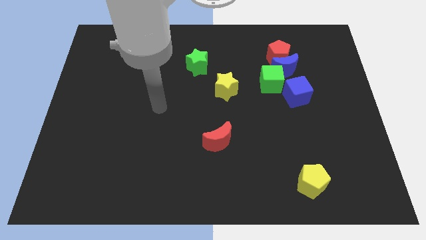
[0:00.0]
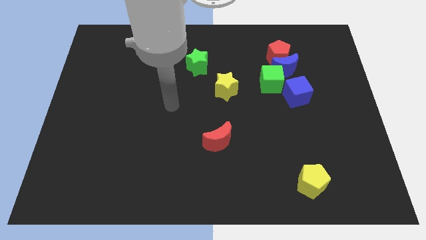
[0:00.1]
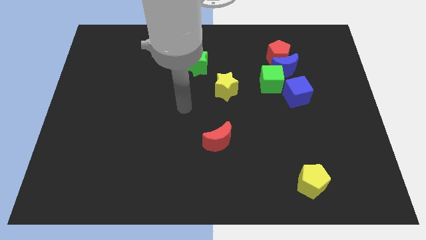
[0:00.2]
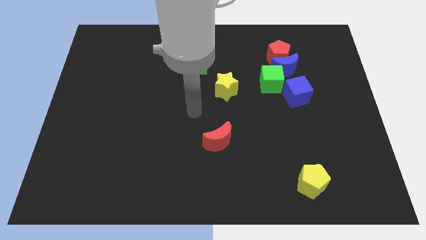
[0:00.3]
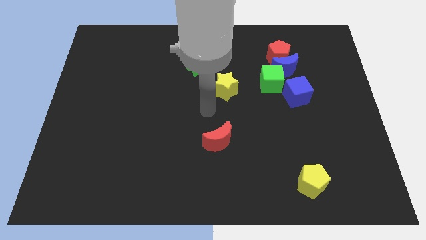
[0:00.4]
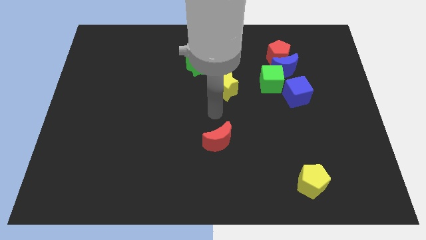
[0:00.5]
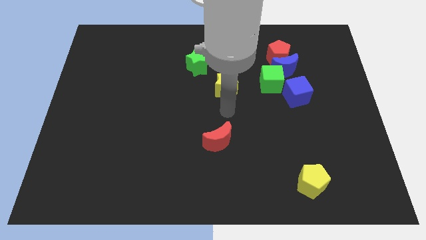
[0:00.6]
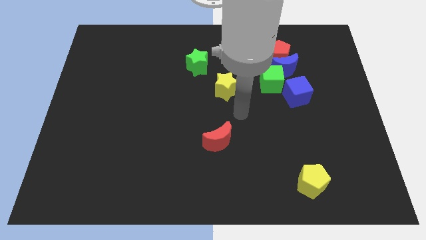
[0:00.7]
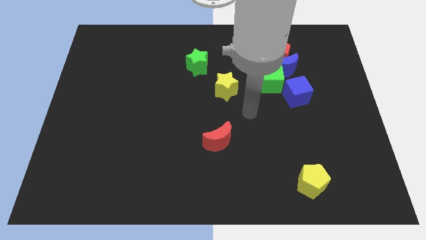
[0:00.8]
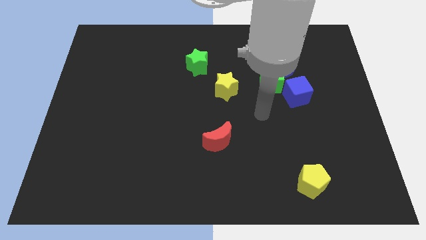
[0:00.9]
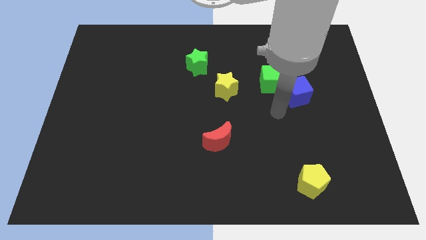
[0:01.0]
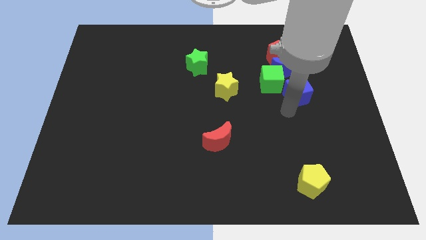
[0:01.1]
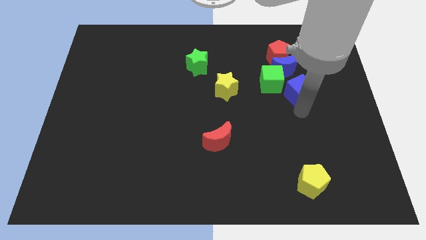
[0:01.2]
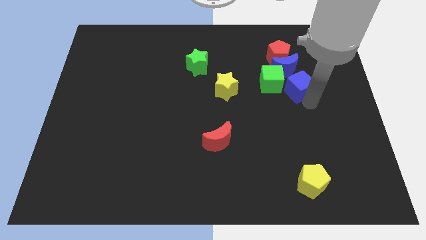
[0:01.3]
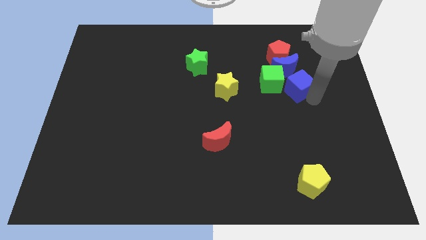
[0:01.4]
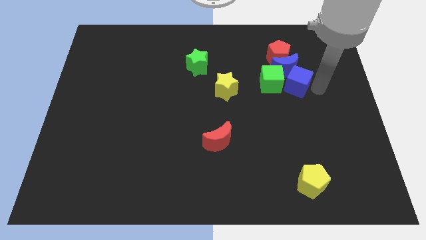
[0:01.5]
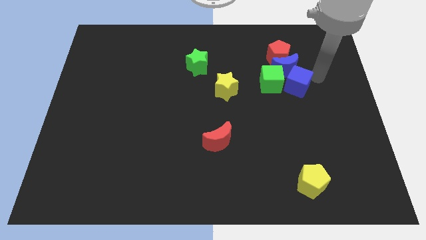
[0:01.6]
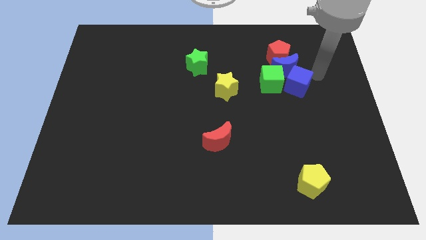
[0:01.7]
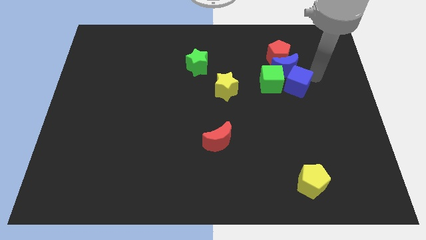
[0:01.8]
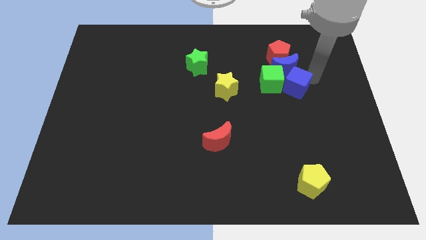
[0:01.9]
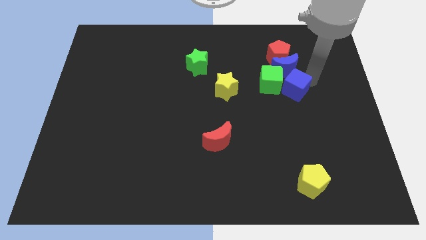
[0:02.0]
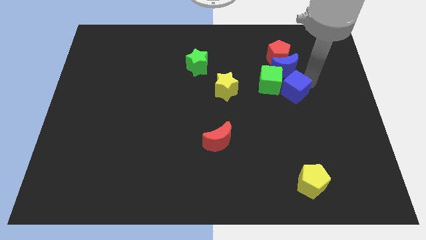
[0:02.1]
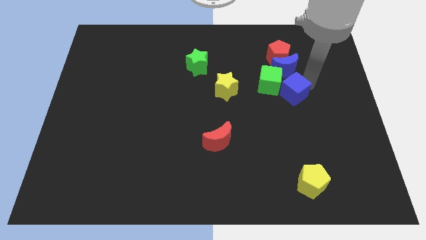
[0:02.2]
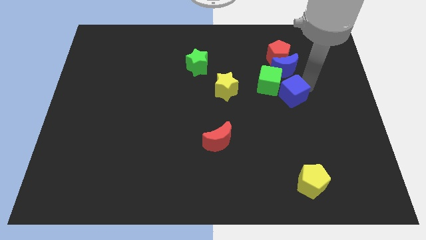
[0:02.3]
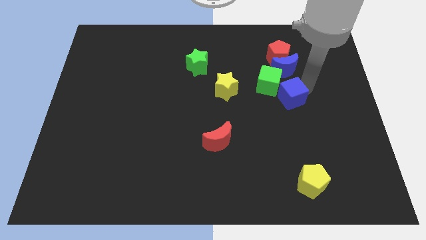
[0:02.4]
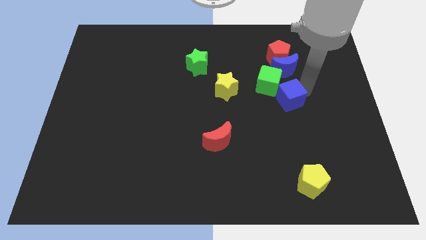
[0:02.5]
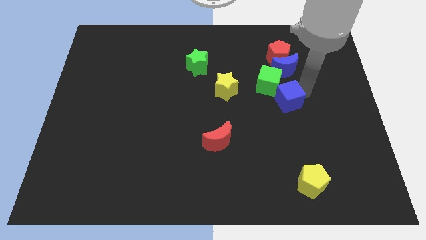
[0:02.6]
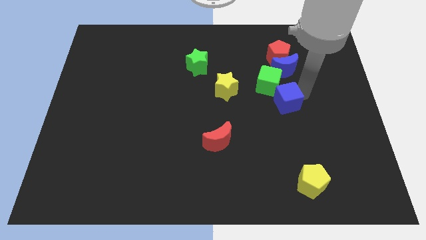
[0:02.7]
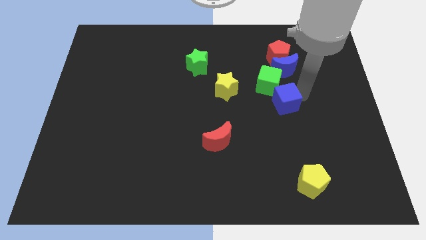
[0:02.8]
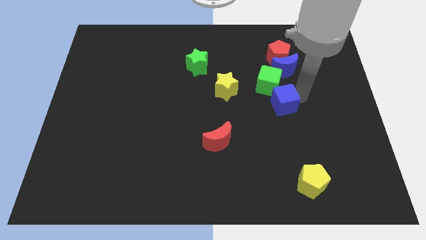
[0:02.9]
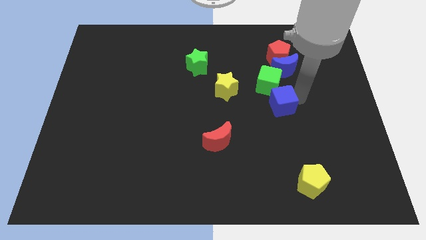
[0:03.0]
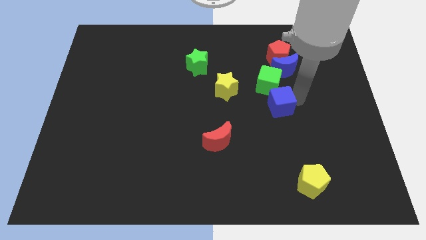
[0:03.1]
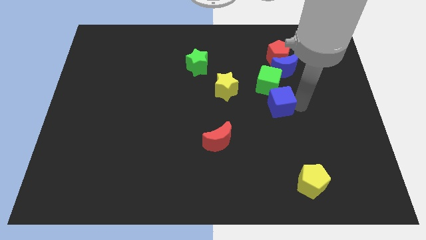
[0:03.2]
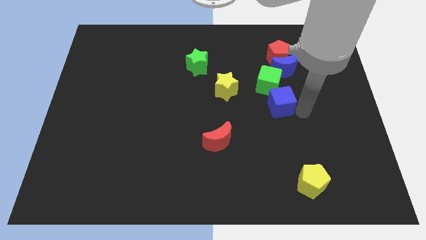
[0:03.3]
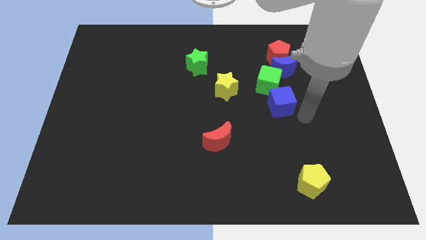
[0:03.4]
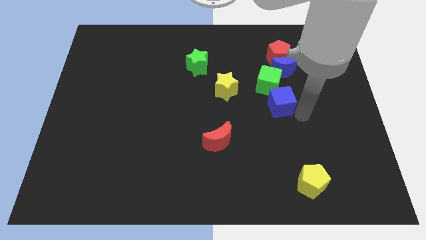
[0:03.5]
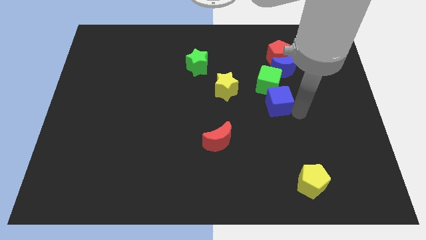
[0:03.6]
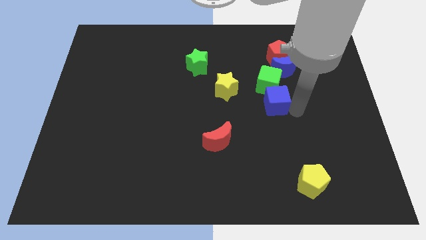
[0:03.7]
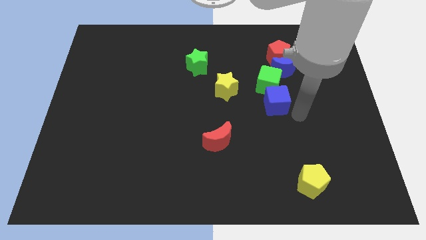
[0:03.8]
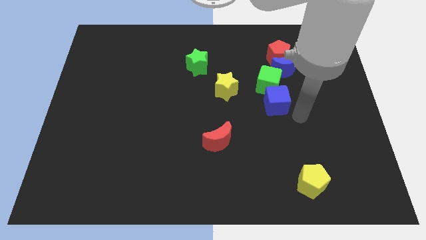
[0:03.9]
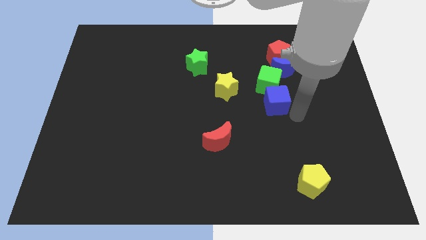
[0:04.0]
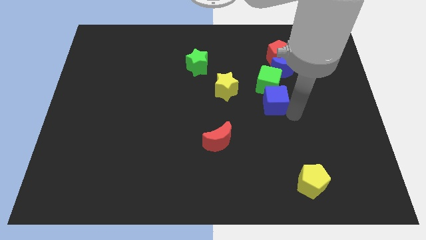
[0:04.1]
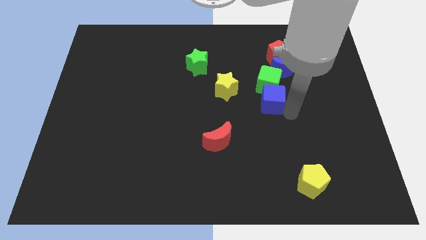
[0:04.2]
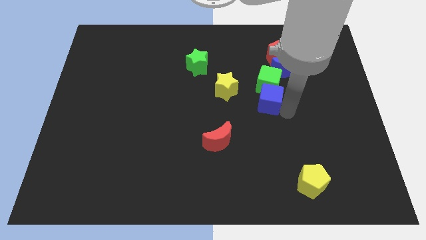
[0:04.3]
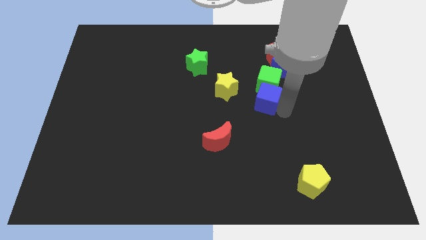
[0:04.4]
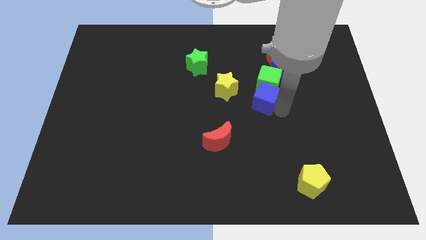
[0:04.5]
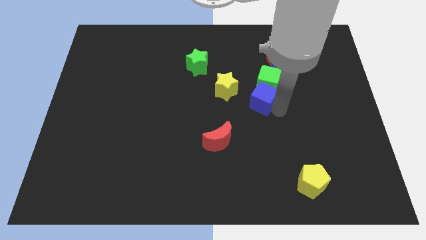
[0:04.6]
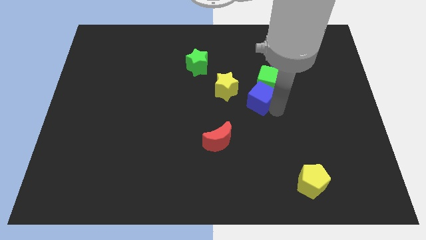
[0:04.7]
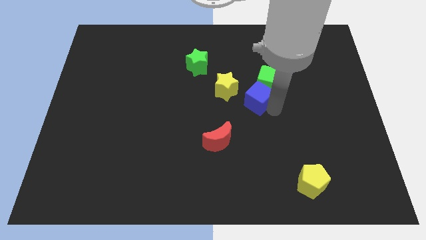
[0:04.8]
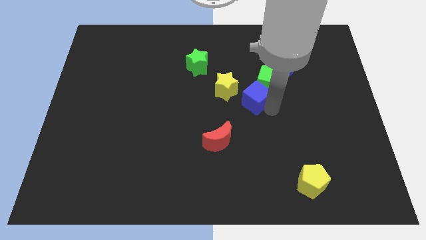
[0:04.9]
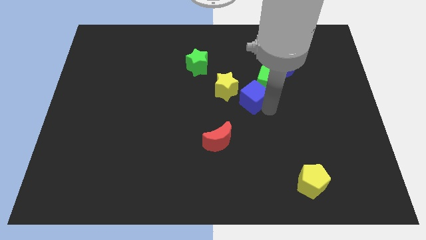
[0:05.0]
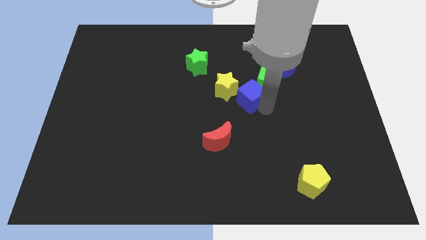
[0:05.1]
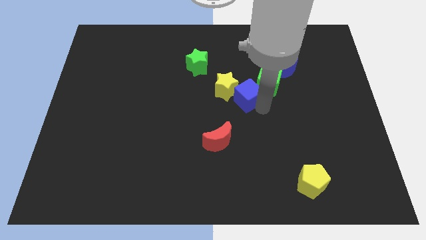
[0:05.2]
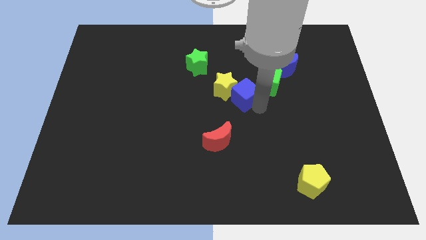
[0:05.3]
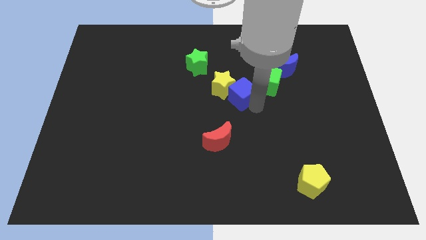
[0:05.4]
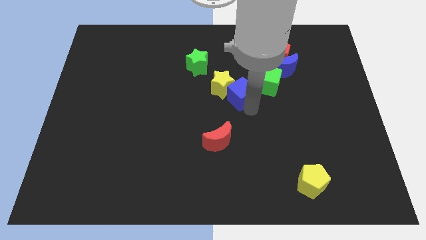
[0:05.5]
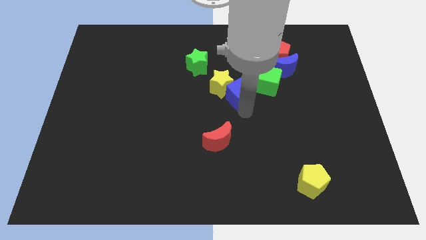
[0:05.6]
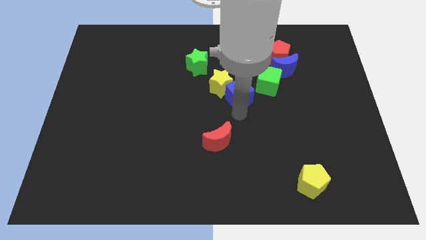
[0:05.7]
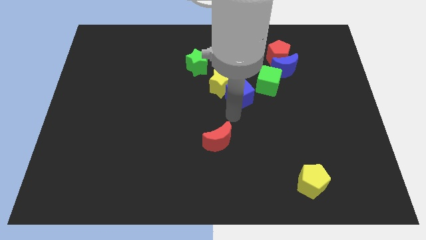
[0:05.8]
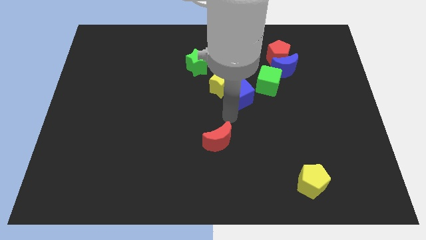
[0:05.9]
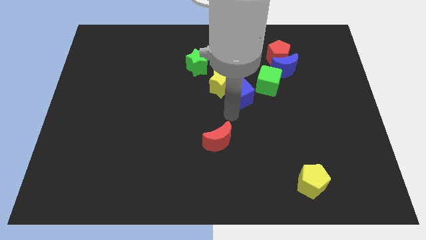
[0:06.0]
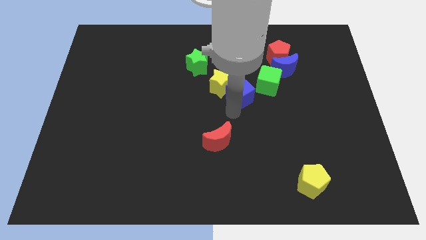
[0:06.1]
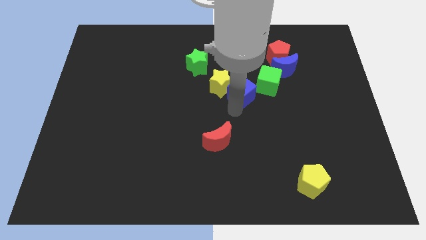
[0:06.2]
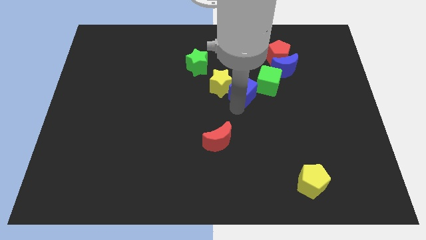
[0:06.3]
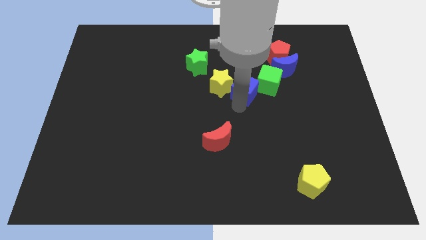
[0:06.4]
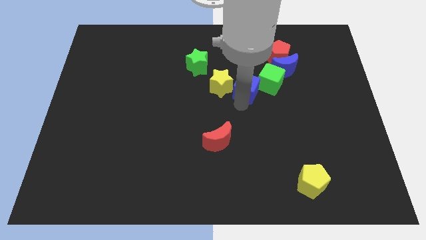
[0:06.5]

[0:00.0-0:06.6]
push the blue cube up and to the left diagonally a bit

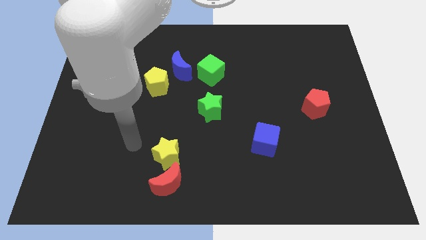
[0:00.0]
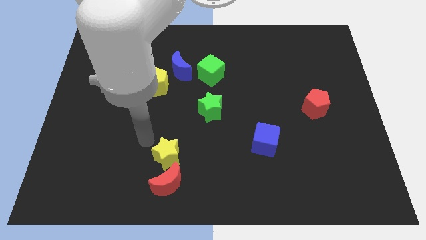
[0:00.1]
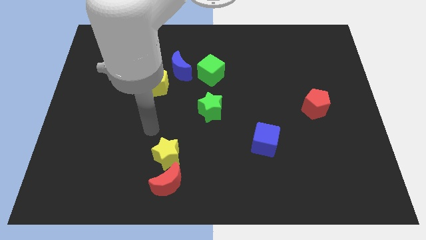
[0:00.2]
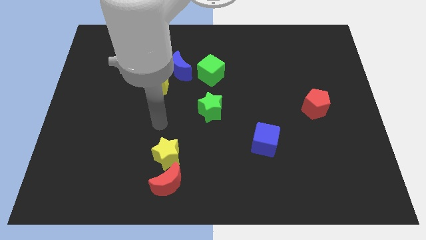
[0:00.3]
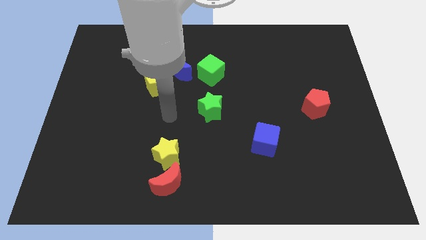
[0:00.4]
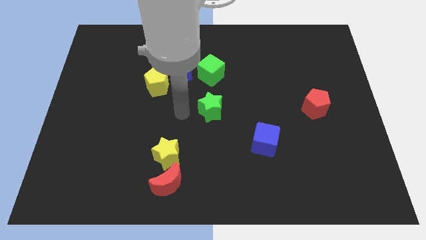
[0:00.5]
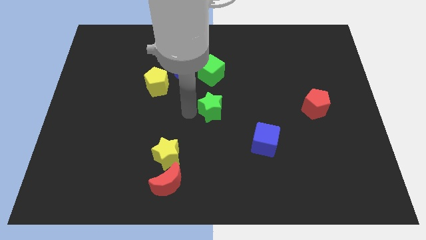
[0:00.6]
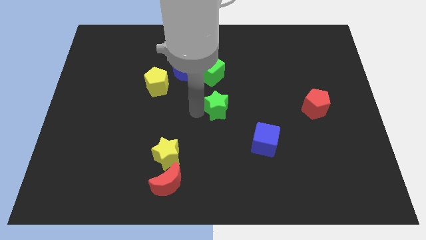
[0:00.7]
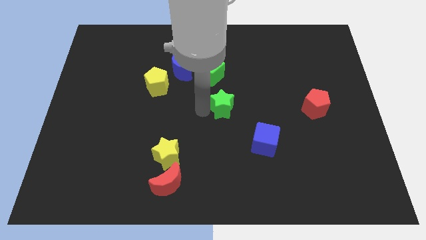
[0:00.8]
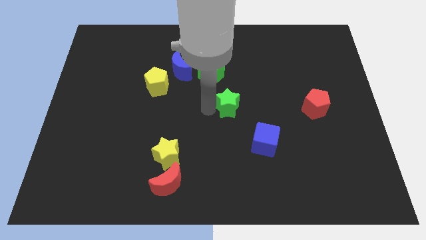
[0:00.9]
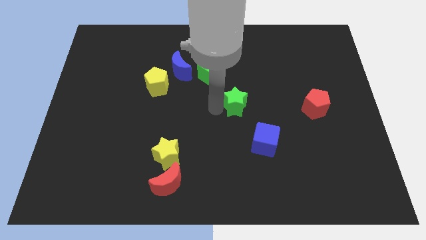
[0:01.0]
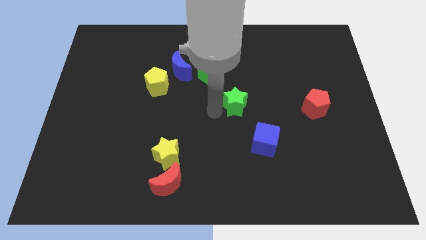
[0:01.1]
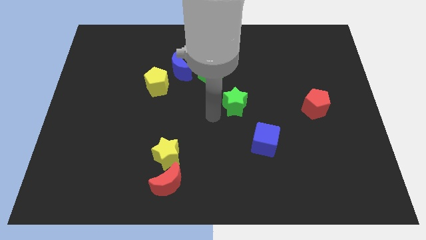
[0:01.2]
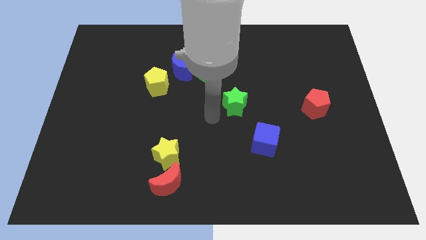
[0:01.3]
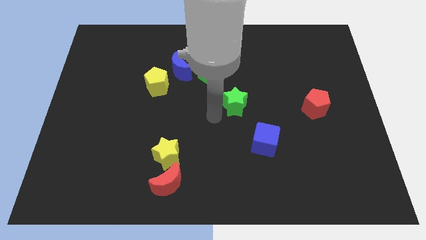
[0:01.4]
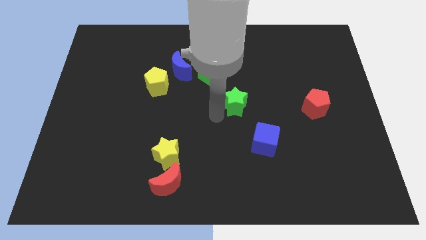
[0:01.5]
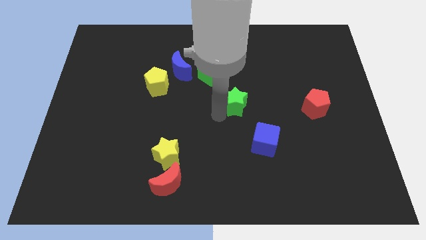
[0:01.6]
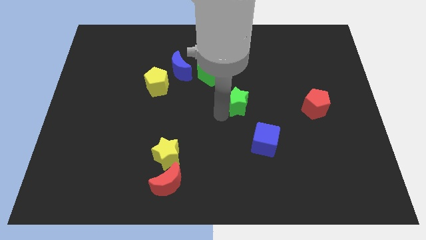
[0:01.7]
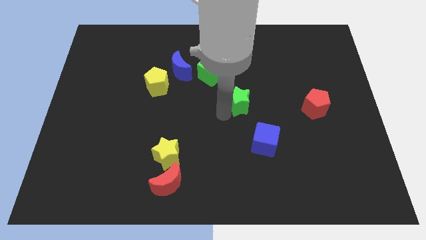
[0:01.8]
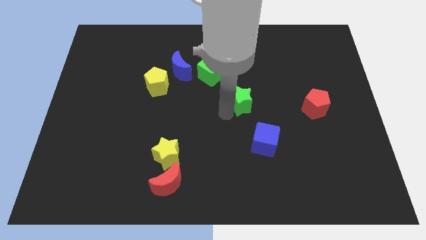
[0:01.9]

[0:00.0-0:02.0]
slightly push the green star right
